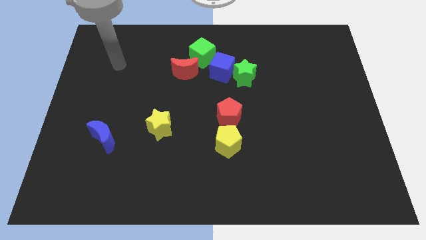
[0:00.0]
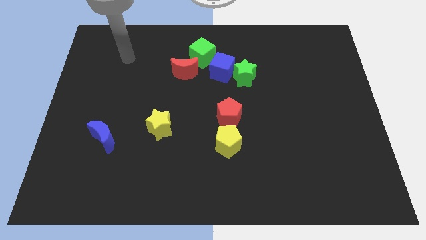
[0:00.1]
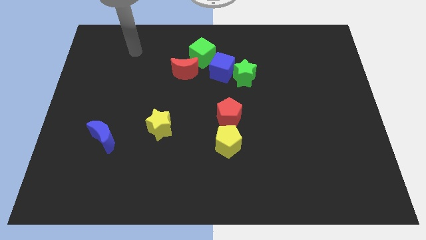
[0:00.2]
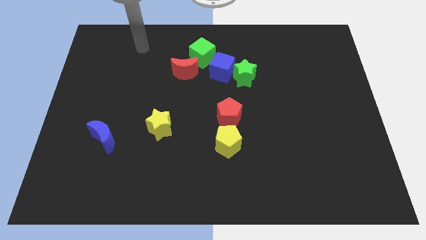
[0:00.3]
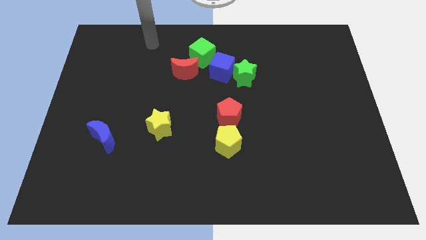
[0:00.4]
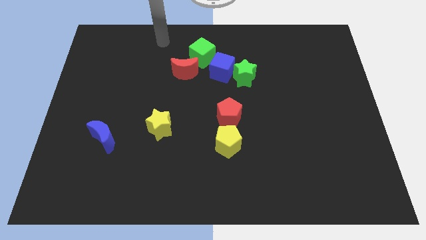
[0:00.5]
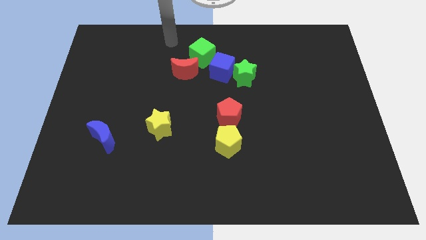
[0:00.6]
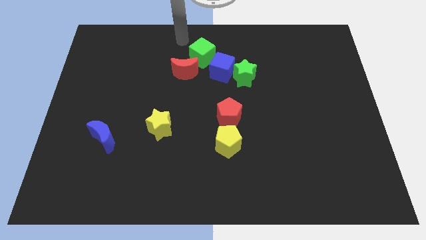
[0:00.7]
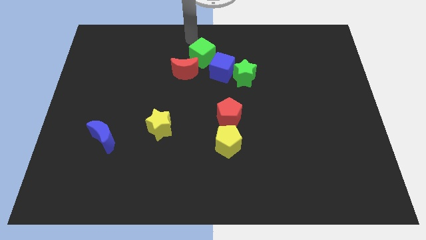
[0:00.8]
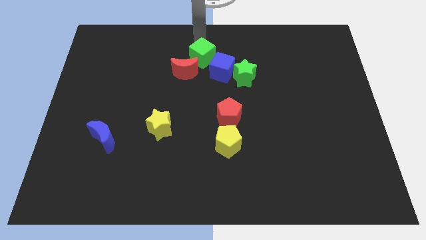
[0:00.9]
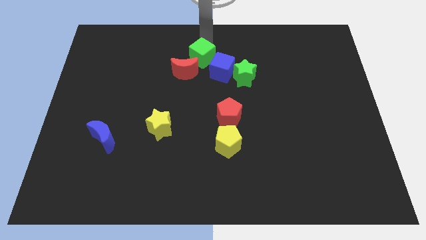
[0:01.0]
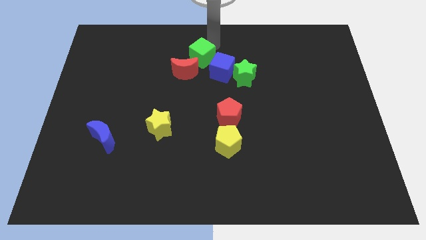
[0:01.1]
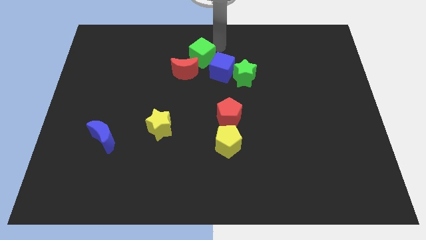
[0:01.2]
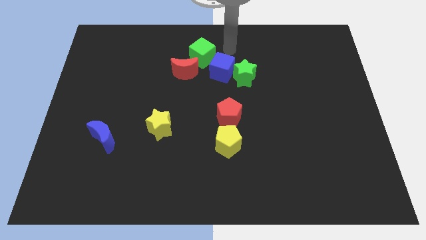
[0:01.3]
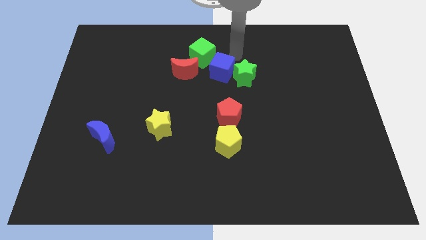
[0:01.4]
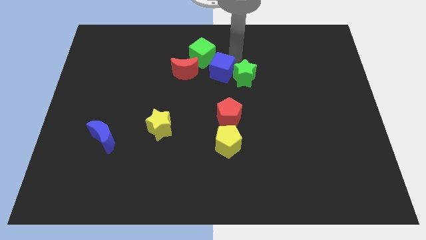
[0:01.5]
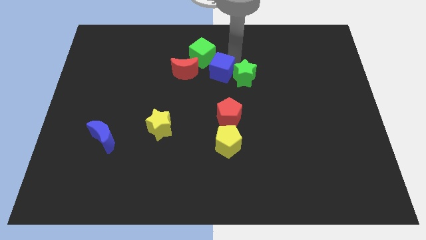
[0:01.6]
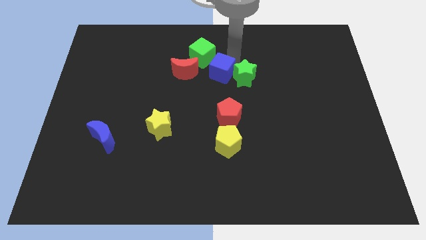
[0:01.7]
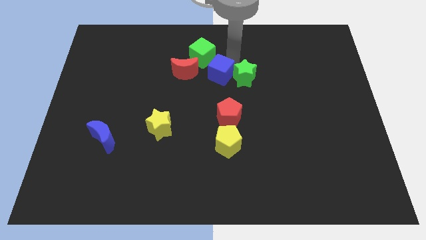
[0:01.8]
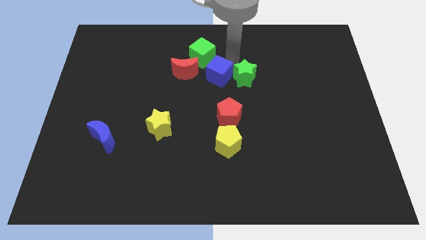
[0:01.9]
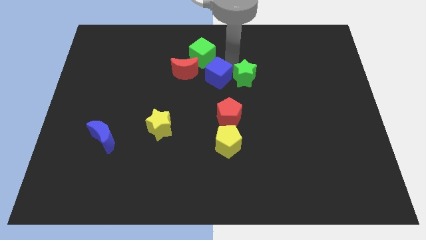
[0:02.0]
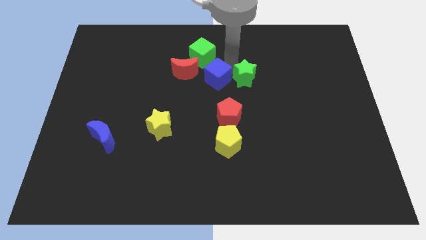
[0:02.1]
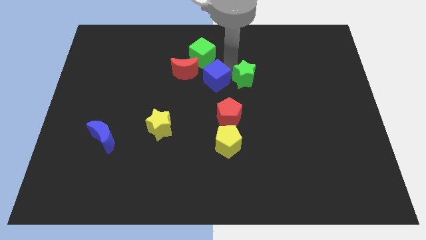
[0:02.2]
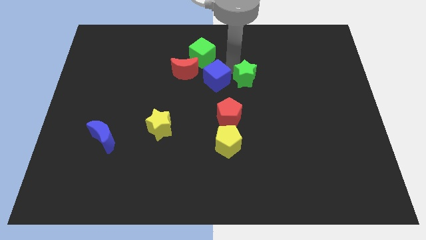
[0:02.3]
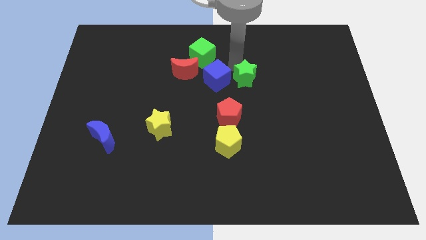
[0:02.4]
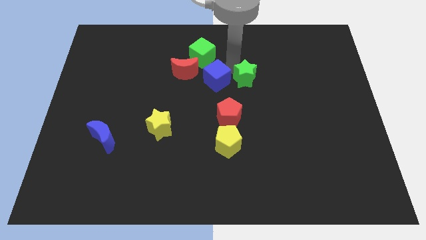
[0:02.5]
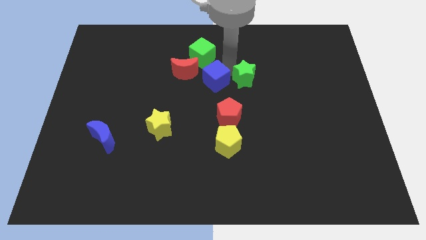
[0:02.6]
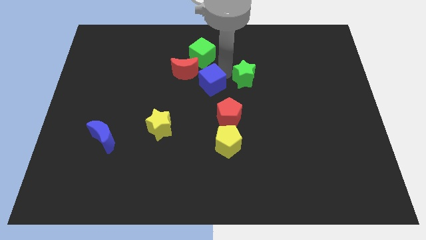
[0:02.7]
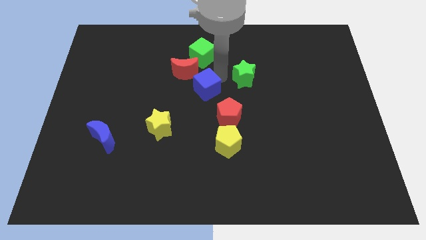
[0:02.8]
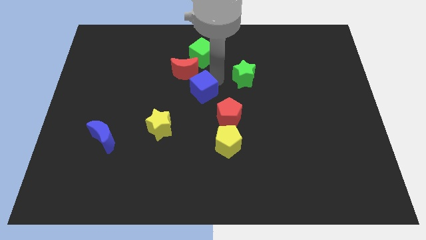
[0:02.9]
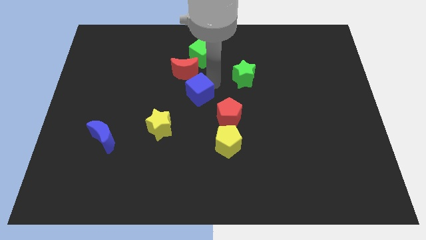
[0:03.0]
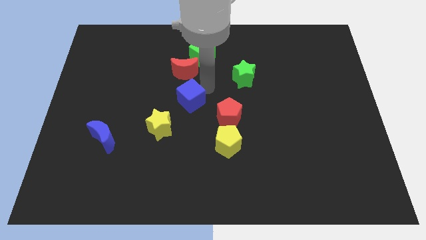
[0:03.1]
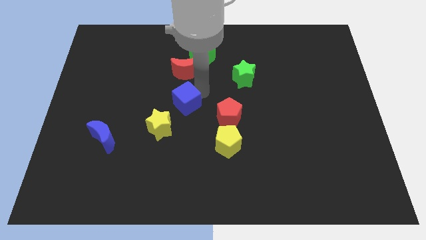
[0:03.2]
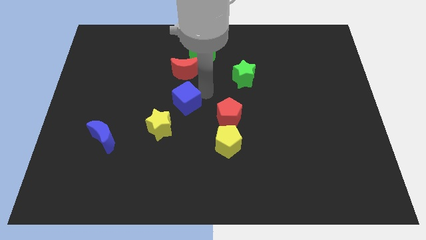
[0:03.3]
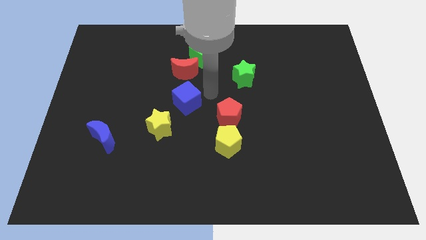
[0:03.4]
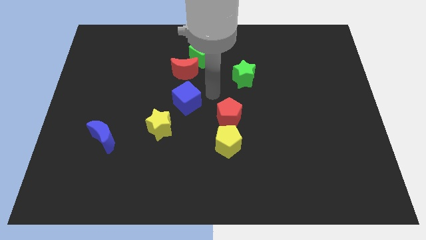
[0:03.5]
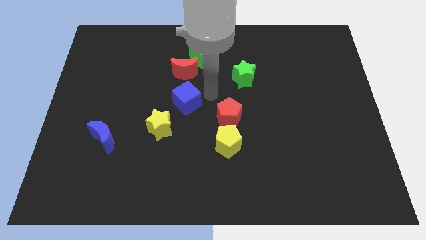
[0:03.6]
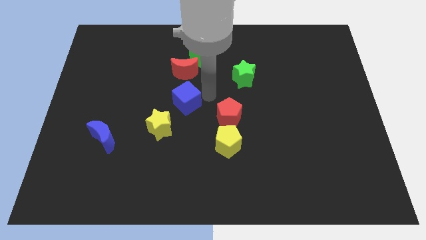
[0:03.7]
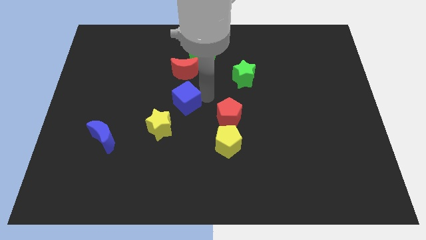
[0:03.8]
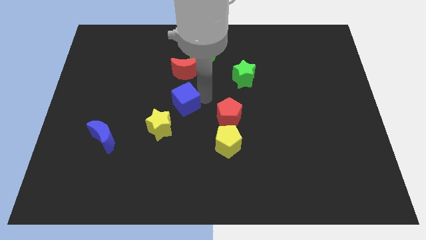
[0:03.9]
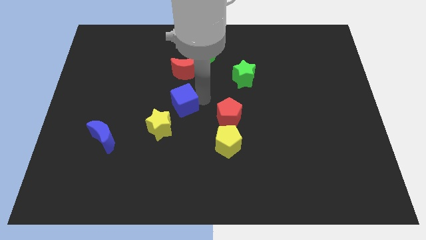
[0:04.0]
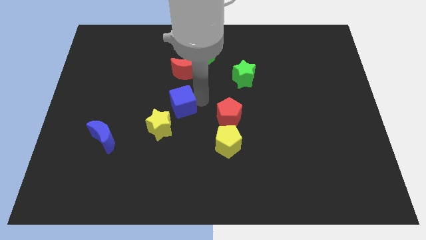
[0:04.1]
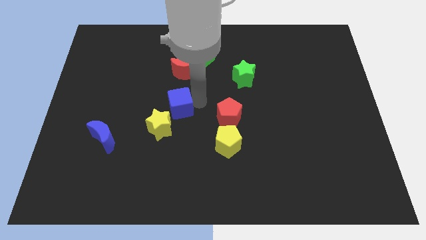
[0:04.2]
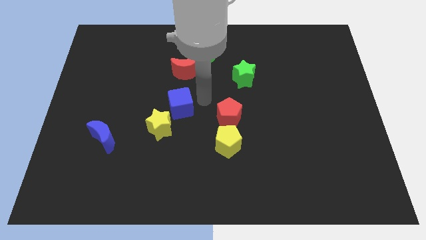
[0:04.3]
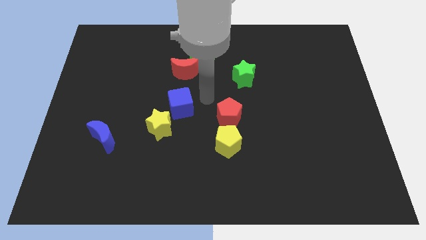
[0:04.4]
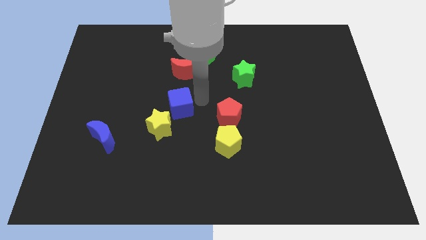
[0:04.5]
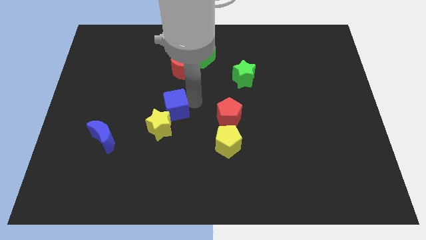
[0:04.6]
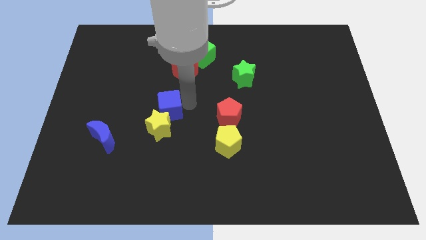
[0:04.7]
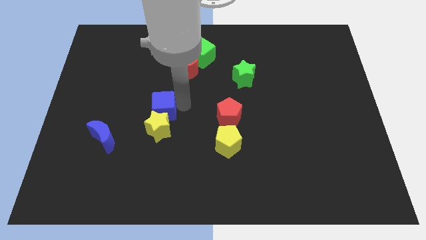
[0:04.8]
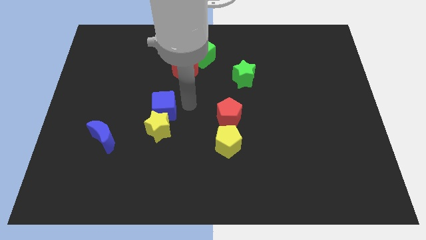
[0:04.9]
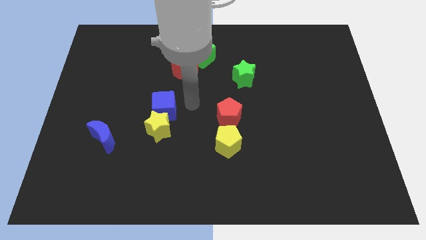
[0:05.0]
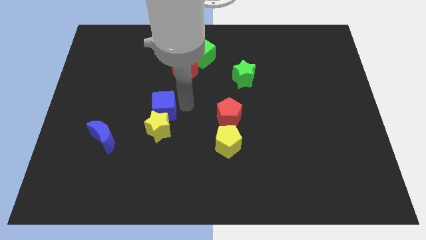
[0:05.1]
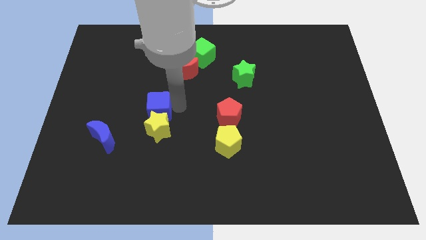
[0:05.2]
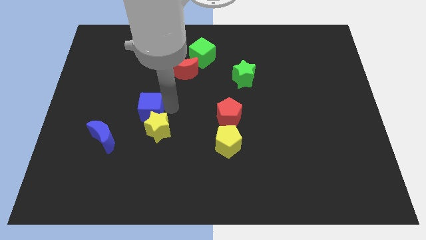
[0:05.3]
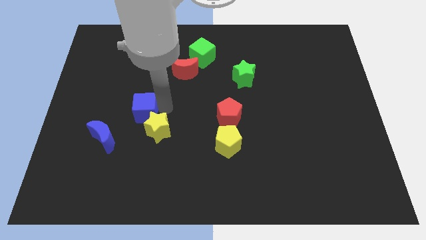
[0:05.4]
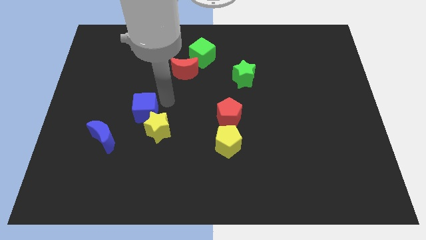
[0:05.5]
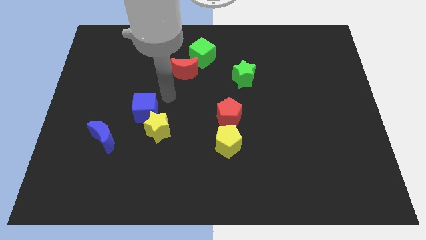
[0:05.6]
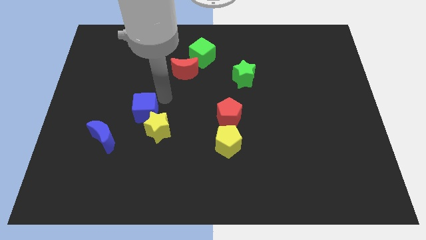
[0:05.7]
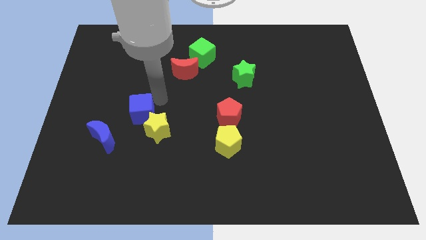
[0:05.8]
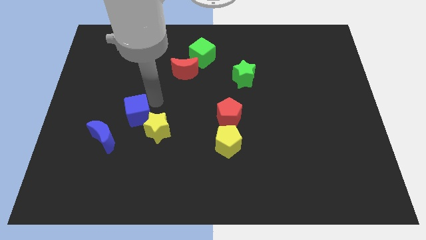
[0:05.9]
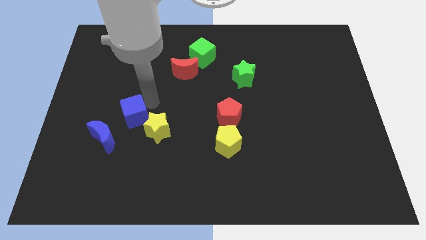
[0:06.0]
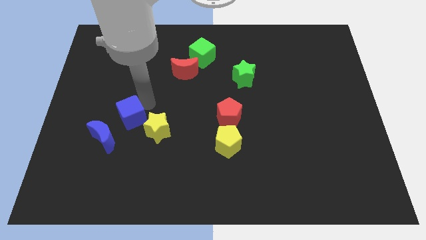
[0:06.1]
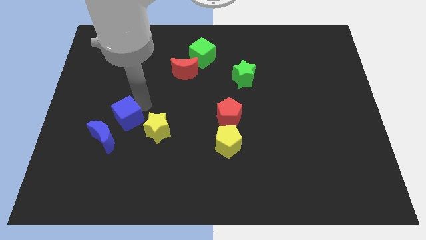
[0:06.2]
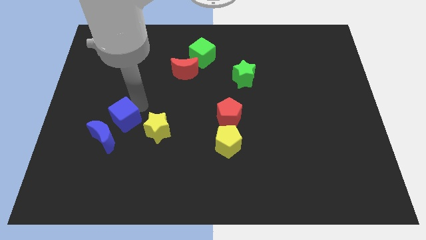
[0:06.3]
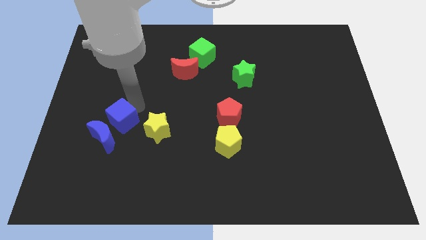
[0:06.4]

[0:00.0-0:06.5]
put the blue cube close to the blue moon
